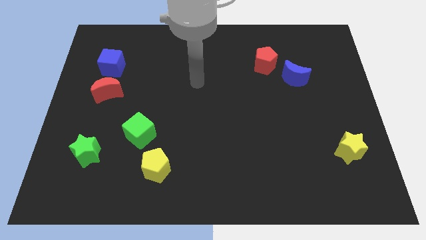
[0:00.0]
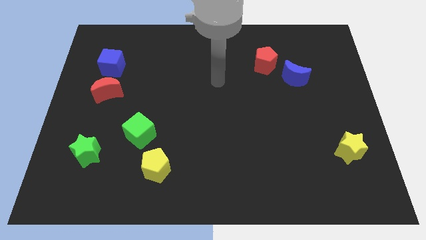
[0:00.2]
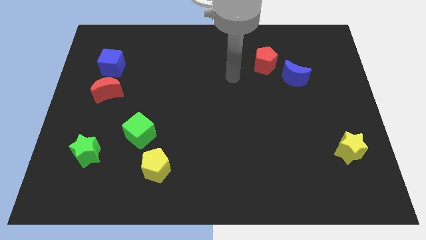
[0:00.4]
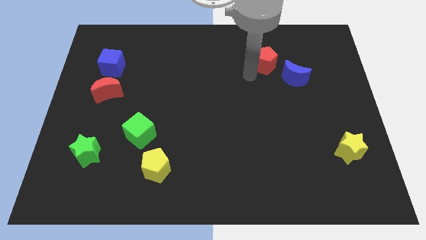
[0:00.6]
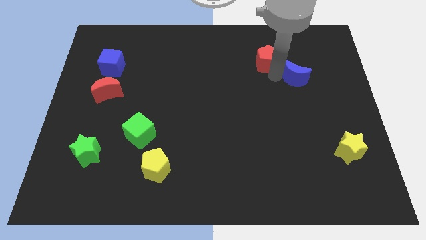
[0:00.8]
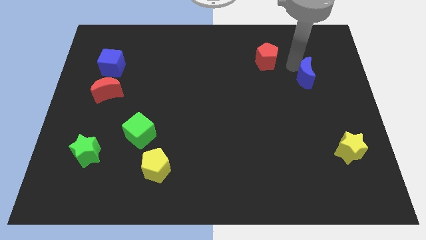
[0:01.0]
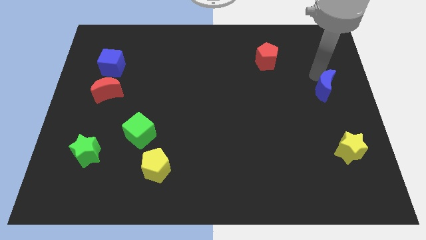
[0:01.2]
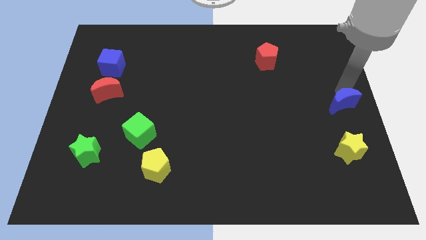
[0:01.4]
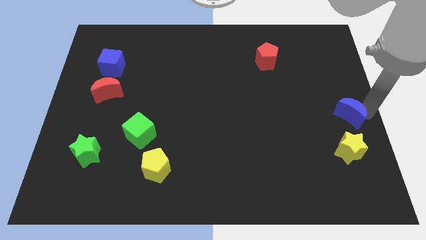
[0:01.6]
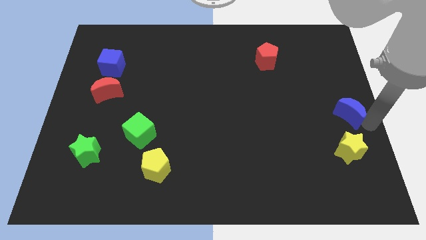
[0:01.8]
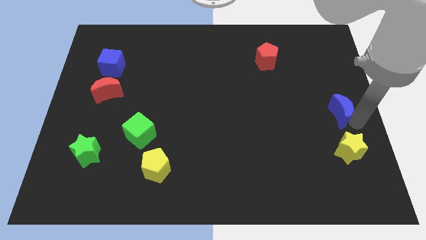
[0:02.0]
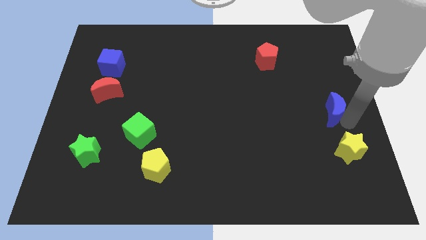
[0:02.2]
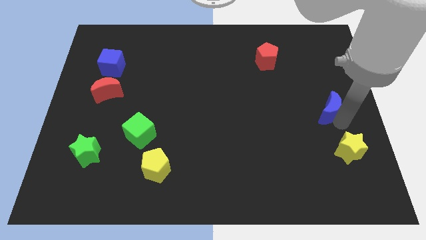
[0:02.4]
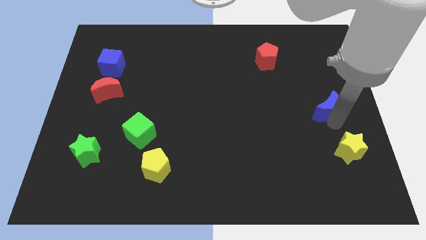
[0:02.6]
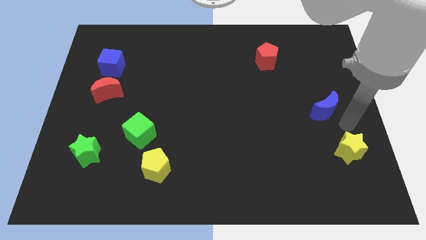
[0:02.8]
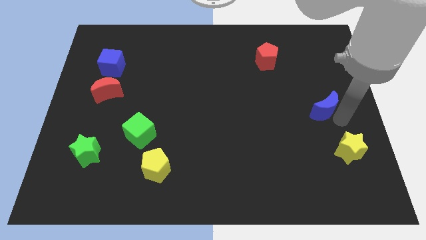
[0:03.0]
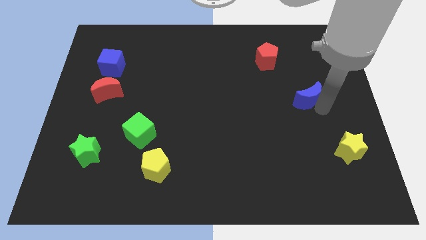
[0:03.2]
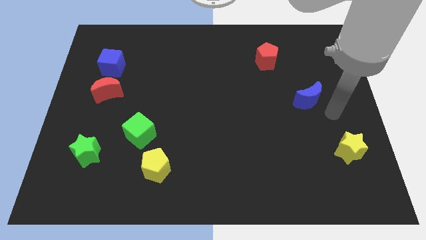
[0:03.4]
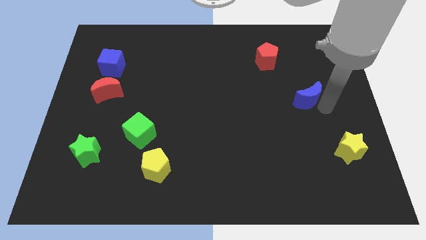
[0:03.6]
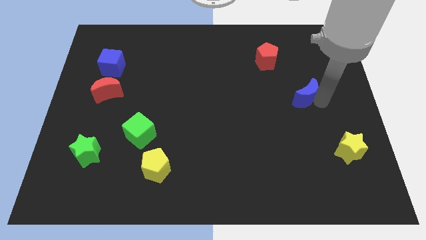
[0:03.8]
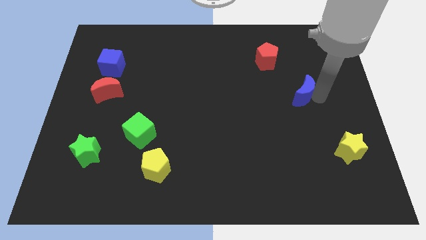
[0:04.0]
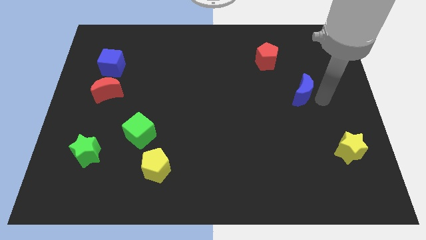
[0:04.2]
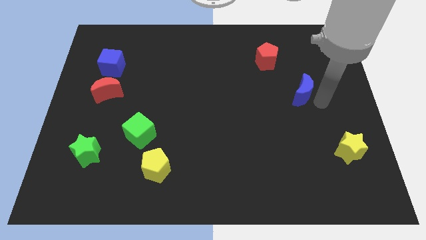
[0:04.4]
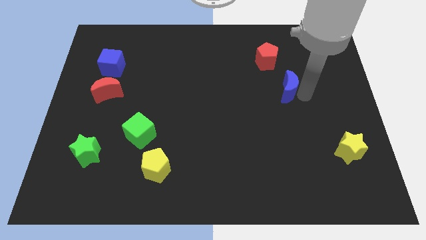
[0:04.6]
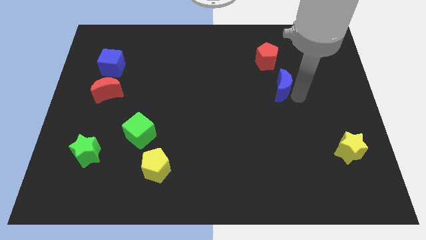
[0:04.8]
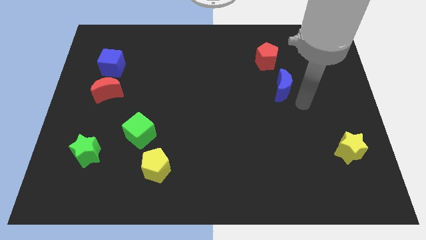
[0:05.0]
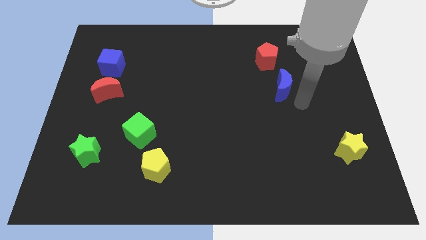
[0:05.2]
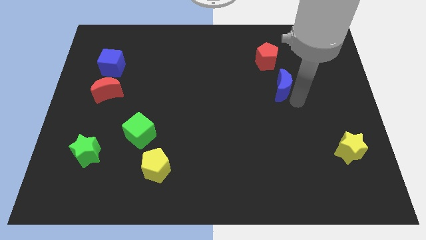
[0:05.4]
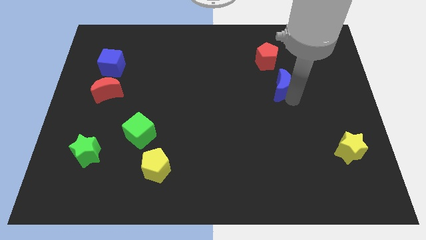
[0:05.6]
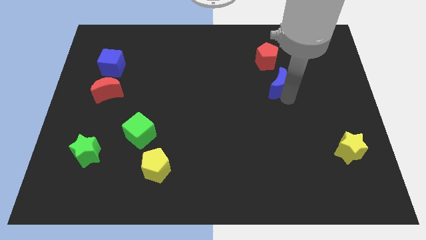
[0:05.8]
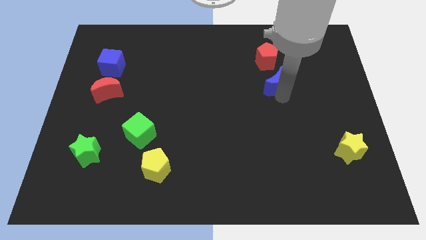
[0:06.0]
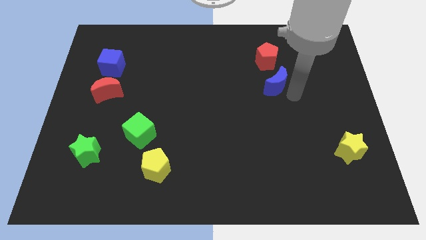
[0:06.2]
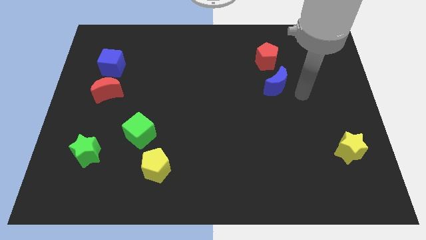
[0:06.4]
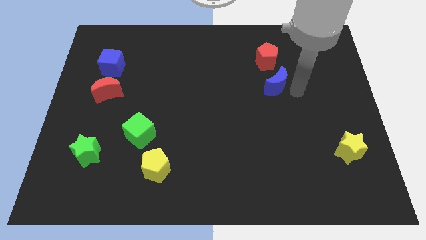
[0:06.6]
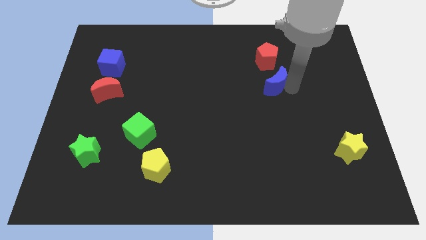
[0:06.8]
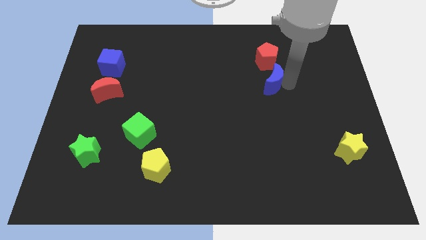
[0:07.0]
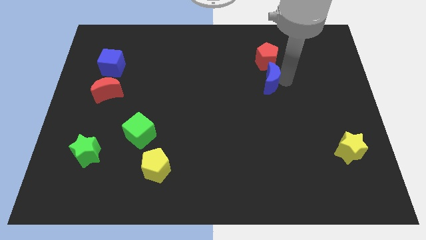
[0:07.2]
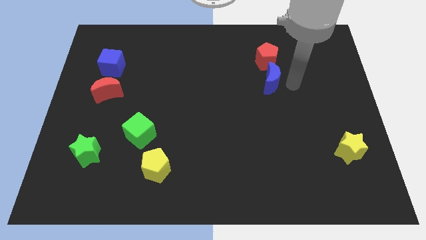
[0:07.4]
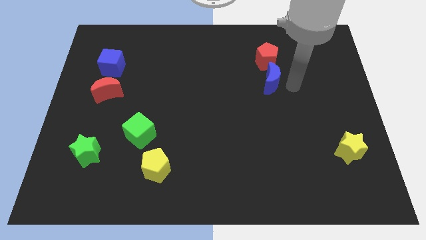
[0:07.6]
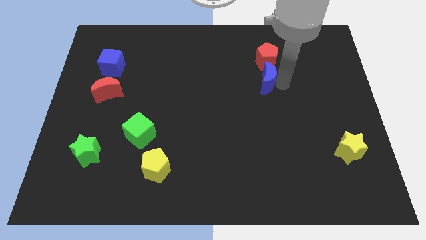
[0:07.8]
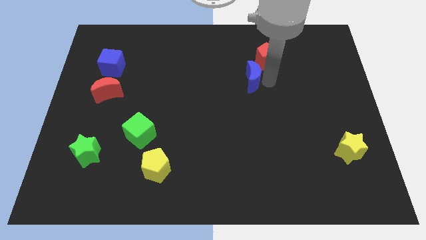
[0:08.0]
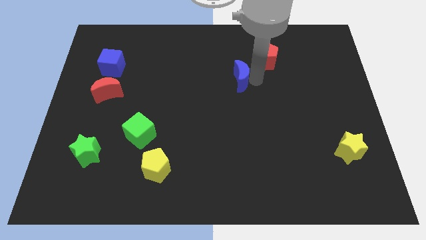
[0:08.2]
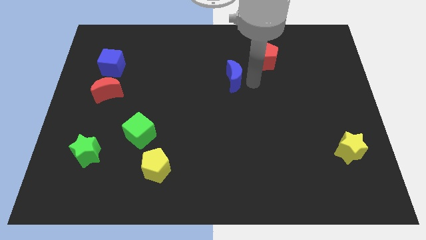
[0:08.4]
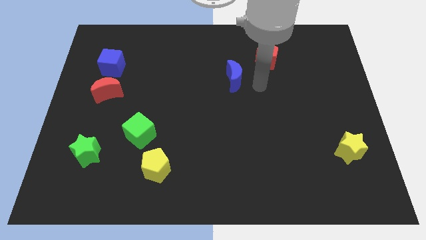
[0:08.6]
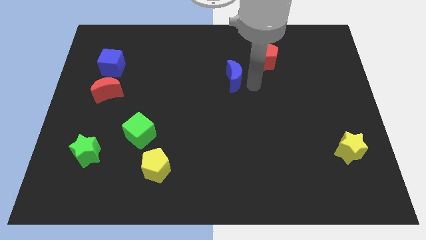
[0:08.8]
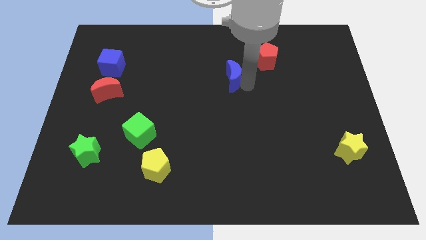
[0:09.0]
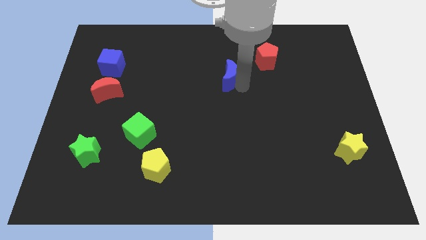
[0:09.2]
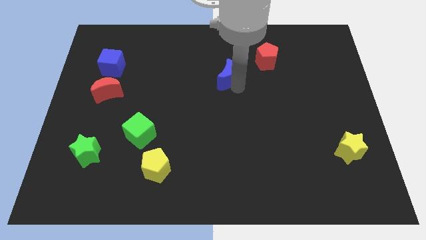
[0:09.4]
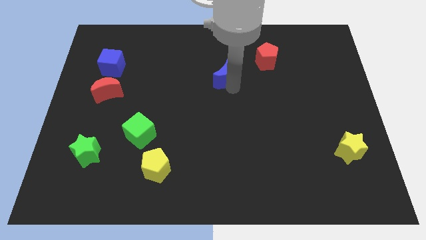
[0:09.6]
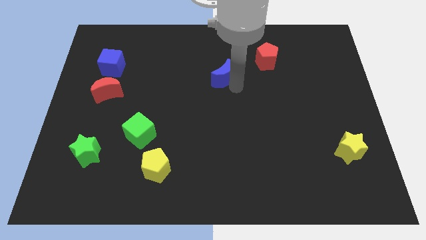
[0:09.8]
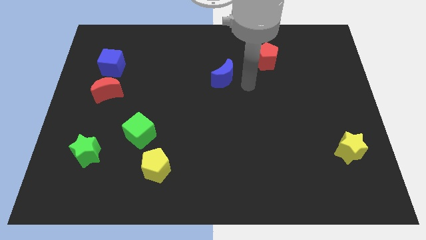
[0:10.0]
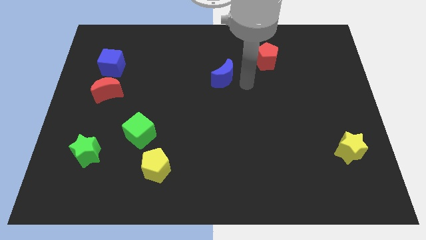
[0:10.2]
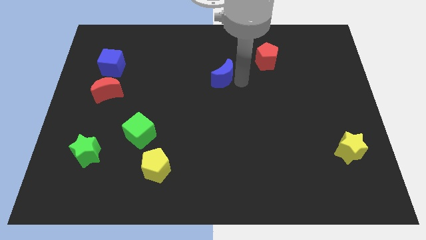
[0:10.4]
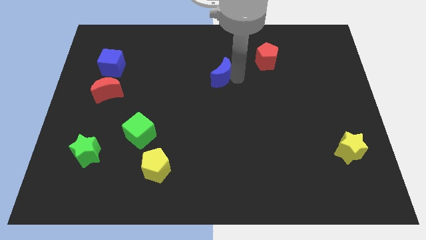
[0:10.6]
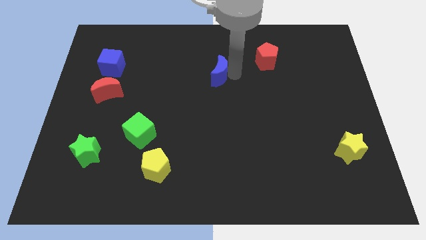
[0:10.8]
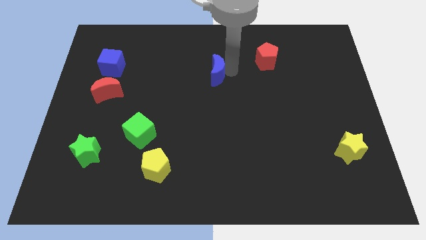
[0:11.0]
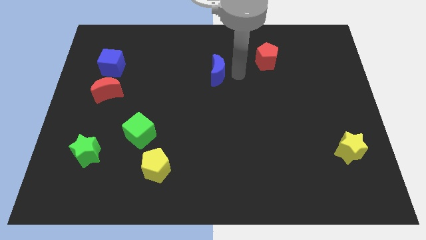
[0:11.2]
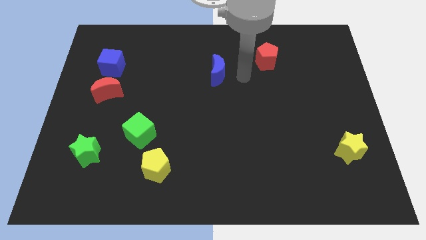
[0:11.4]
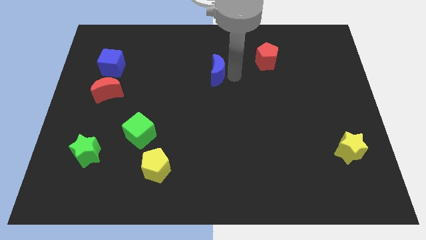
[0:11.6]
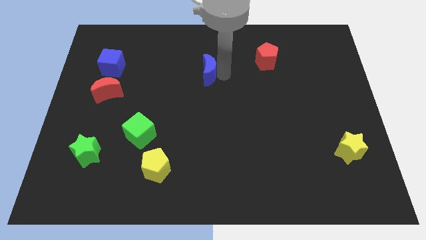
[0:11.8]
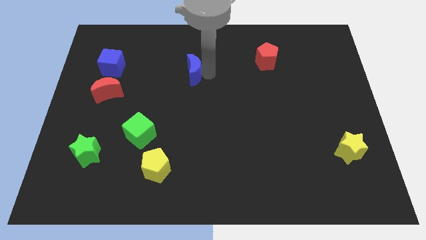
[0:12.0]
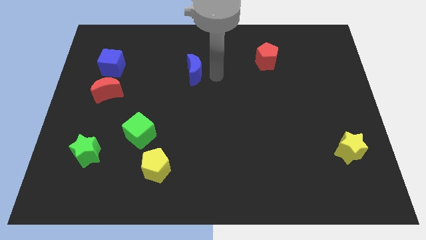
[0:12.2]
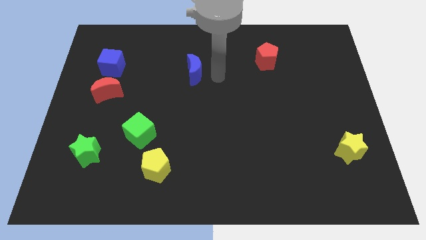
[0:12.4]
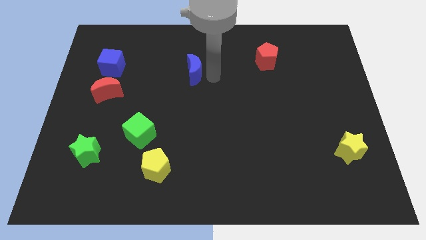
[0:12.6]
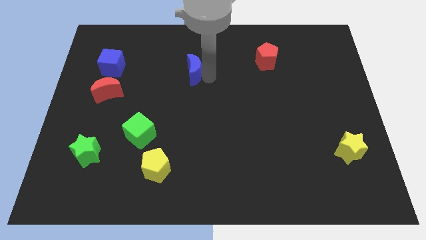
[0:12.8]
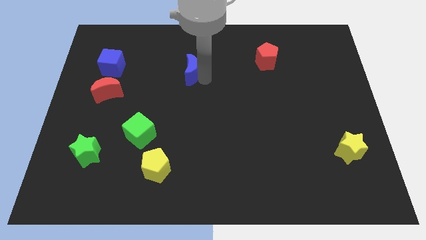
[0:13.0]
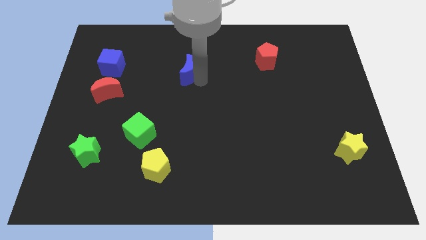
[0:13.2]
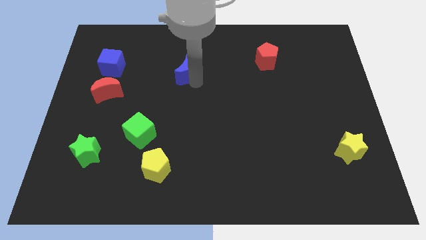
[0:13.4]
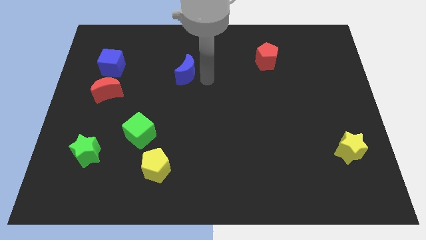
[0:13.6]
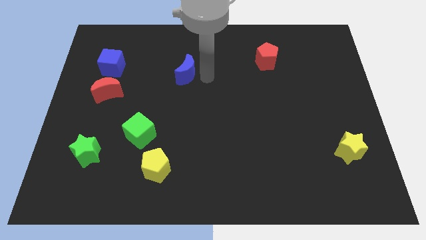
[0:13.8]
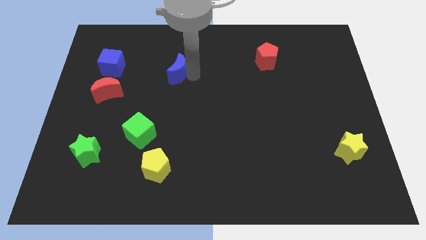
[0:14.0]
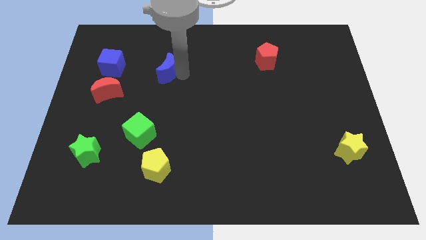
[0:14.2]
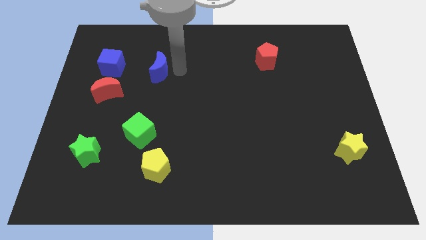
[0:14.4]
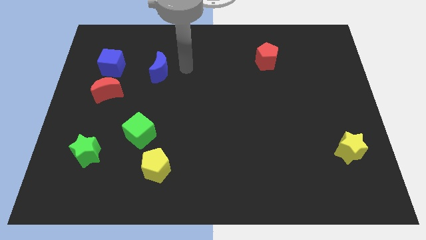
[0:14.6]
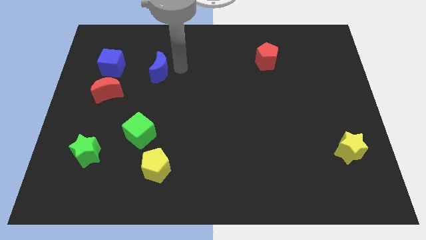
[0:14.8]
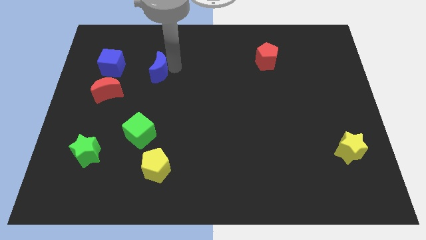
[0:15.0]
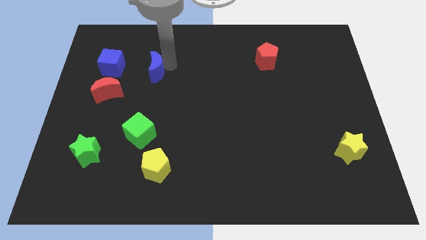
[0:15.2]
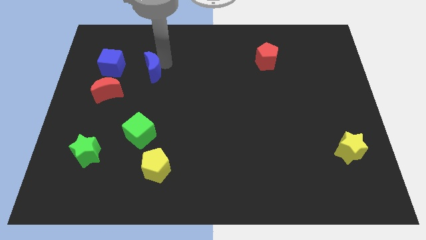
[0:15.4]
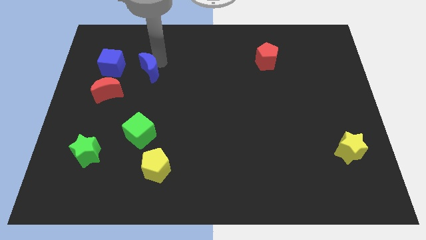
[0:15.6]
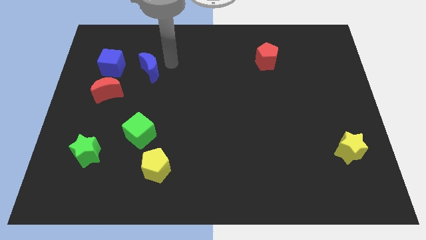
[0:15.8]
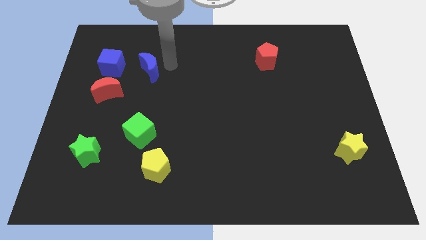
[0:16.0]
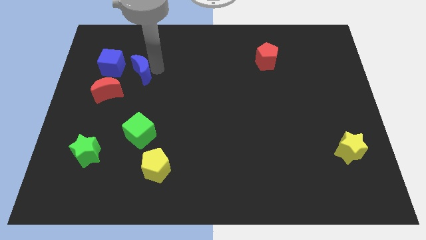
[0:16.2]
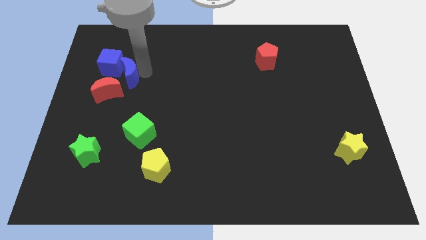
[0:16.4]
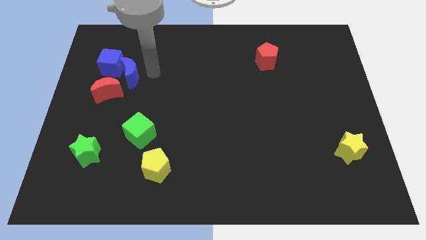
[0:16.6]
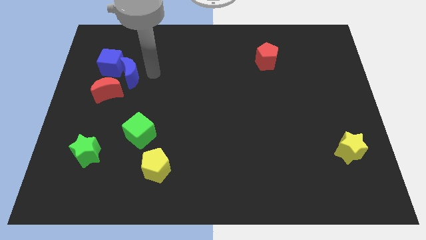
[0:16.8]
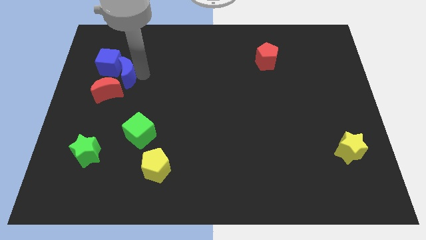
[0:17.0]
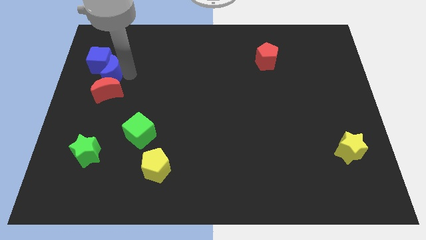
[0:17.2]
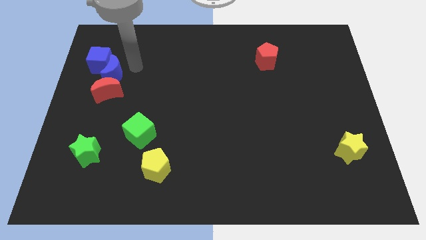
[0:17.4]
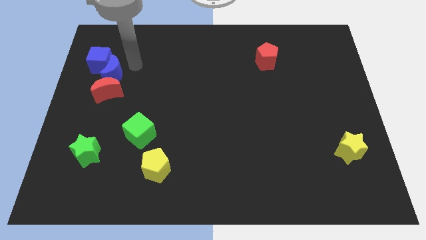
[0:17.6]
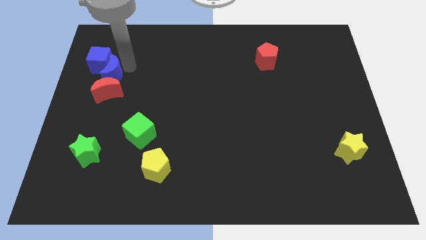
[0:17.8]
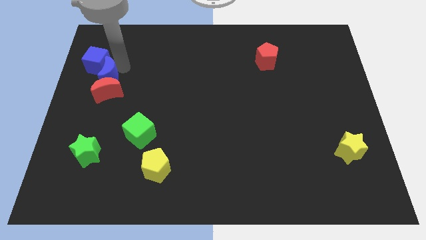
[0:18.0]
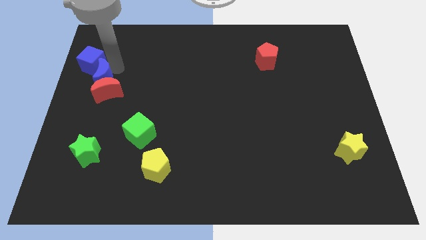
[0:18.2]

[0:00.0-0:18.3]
move the blue moon to the left side
